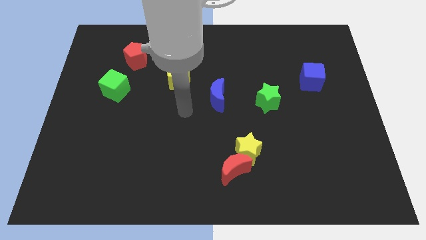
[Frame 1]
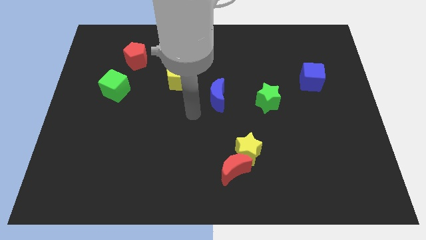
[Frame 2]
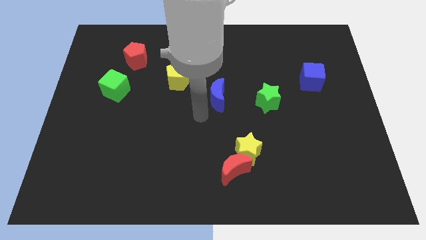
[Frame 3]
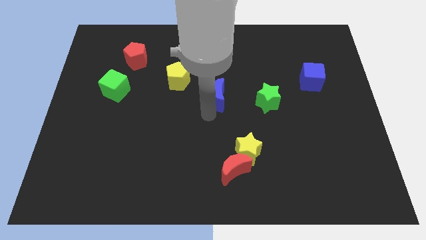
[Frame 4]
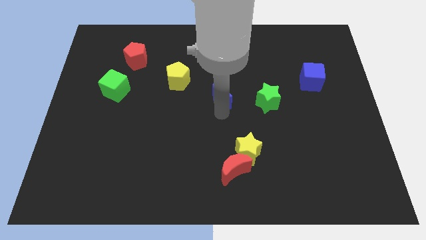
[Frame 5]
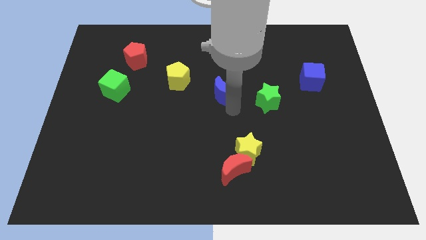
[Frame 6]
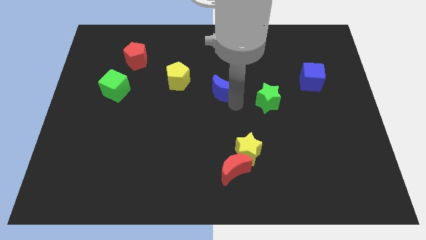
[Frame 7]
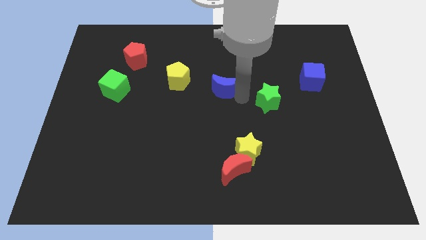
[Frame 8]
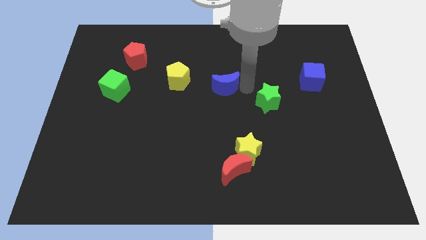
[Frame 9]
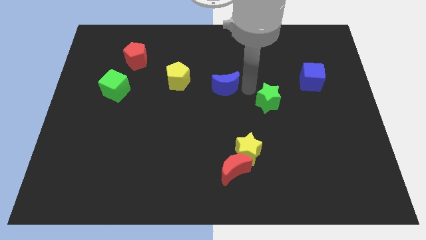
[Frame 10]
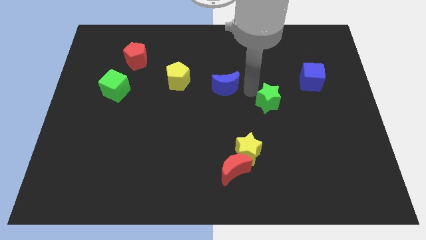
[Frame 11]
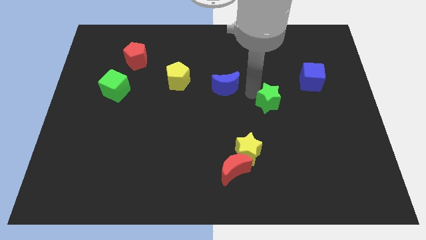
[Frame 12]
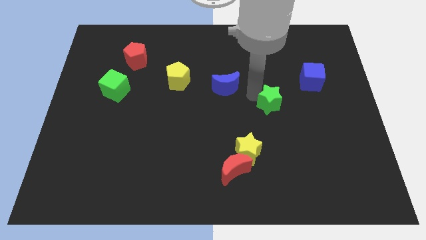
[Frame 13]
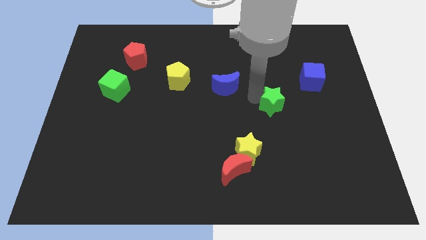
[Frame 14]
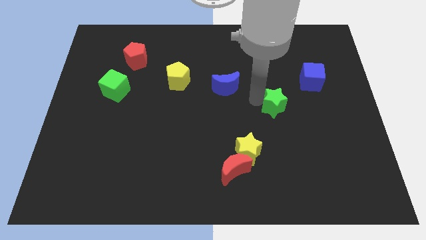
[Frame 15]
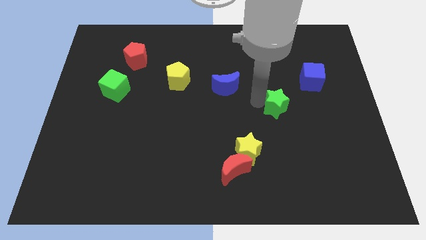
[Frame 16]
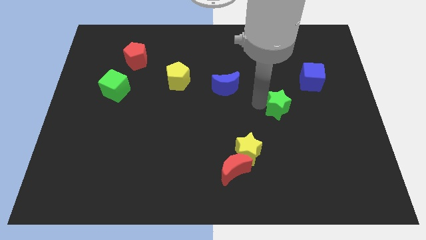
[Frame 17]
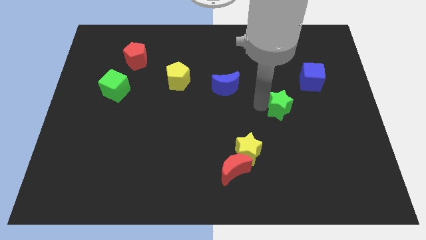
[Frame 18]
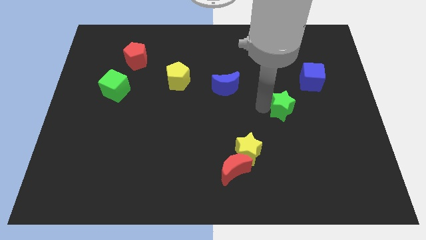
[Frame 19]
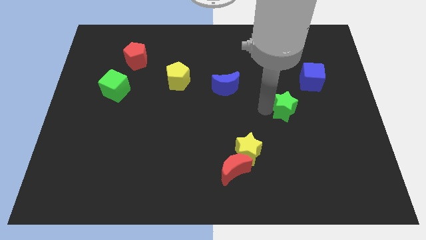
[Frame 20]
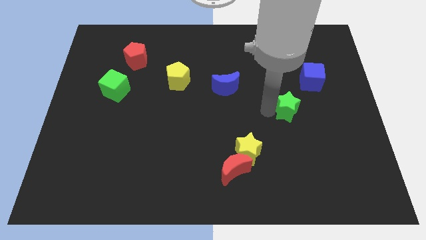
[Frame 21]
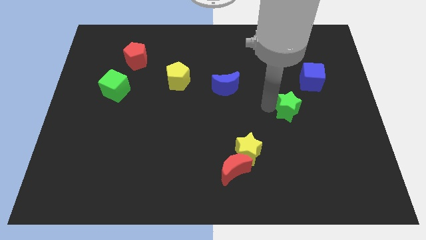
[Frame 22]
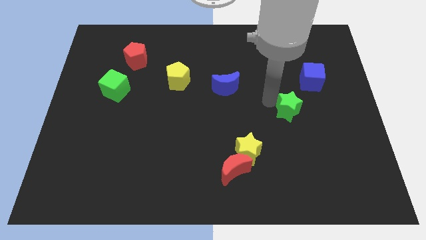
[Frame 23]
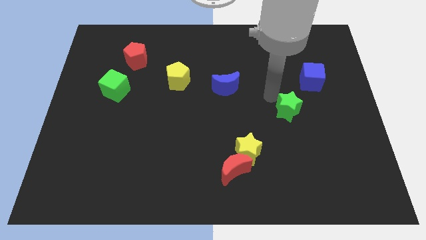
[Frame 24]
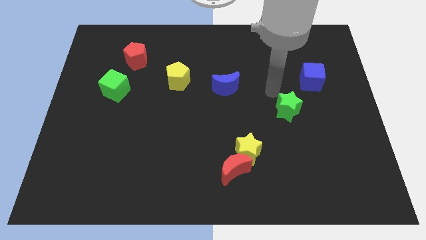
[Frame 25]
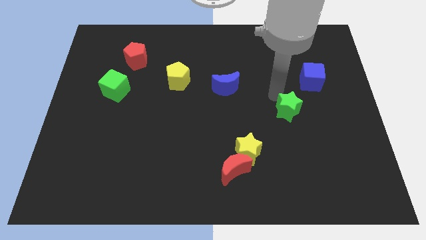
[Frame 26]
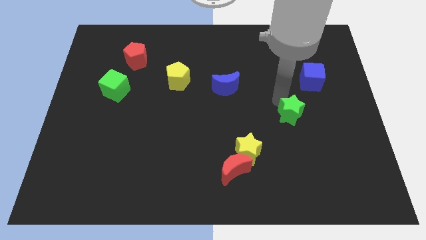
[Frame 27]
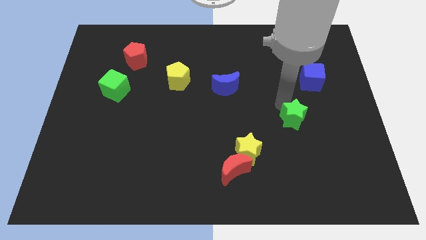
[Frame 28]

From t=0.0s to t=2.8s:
slightly slide the green star down and to the right

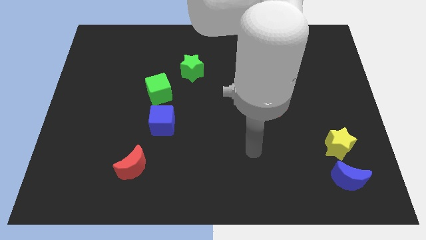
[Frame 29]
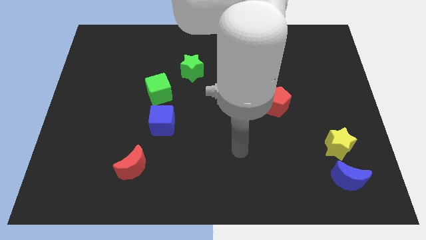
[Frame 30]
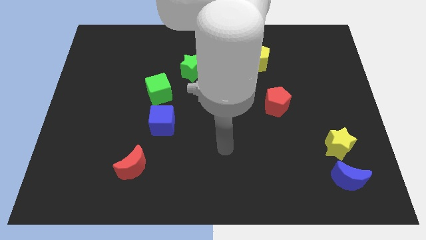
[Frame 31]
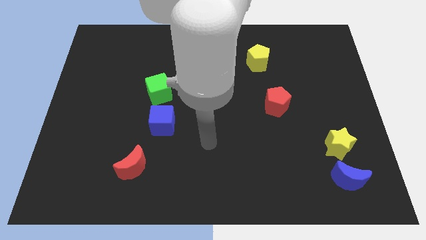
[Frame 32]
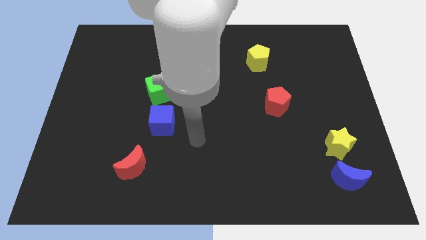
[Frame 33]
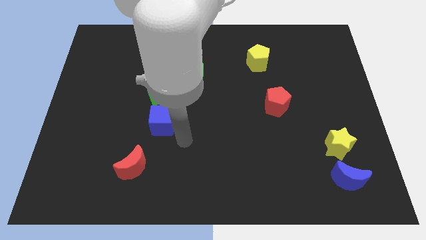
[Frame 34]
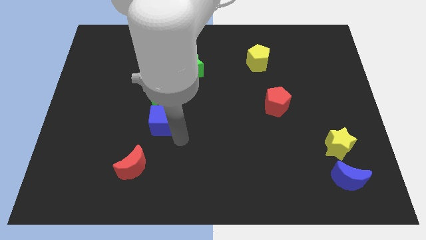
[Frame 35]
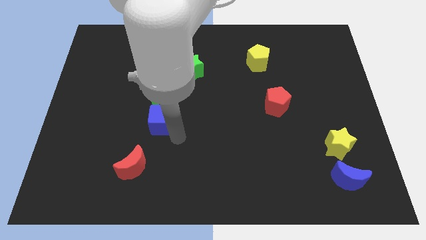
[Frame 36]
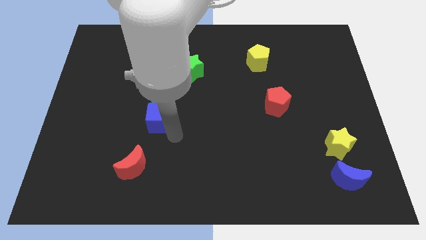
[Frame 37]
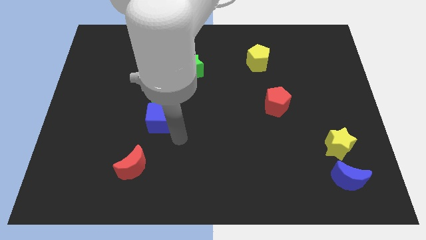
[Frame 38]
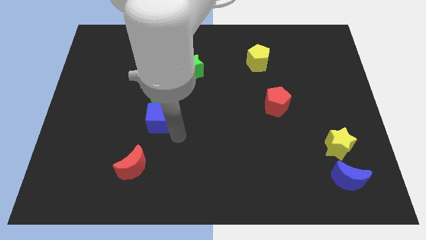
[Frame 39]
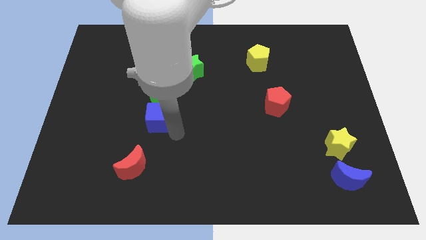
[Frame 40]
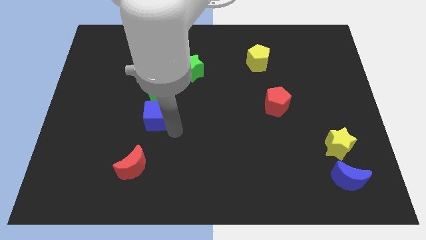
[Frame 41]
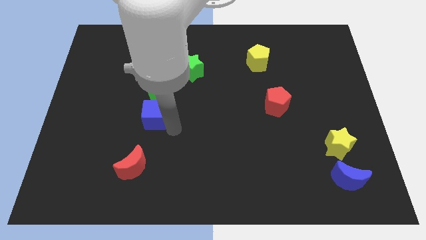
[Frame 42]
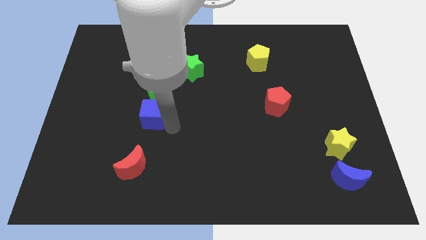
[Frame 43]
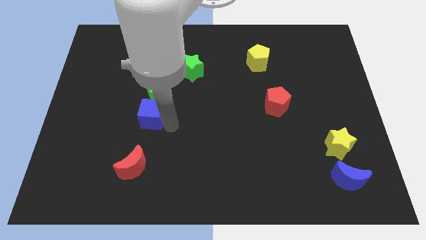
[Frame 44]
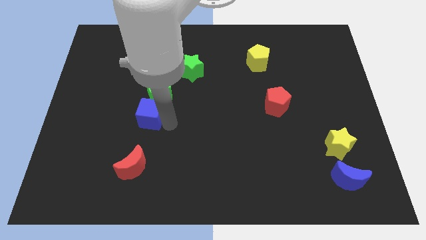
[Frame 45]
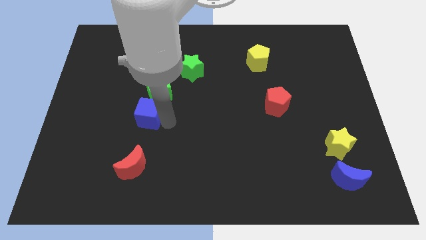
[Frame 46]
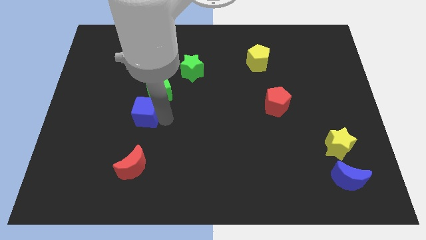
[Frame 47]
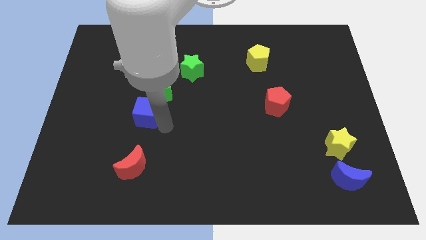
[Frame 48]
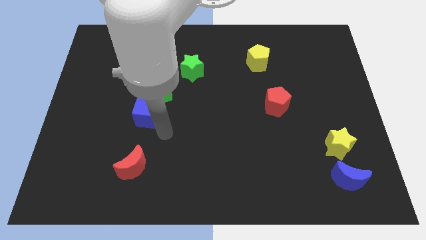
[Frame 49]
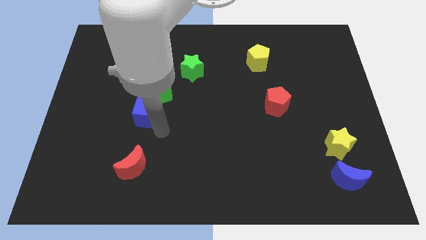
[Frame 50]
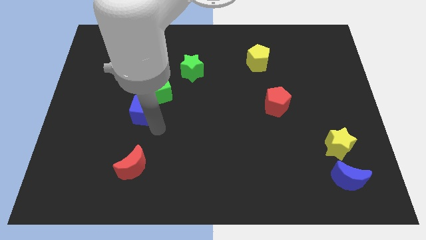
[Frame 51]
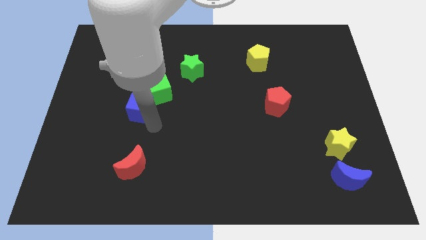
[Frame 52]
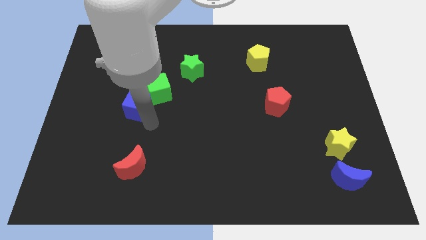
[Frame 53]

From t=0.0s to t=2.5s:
push the blue cube up and then left somewhat

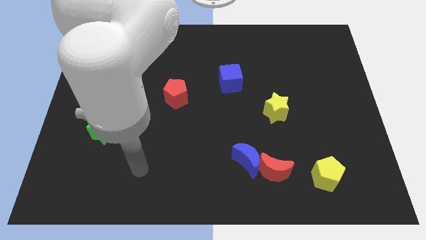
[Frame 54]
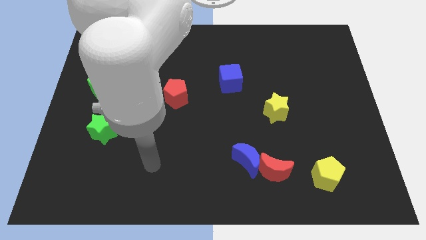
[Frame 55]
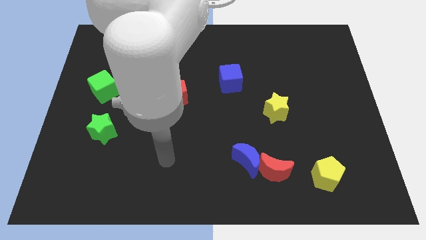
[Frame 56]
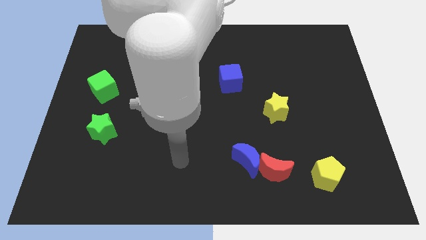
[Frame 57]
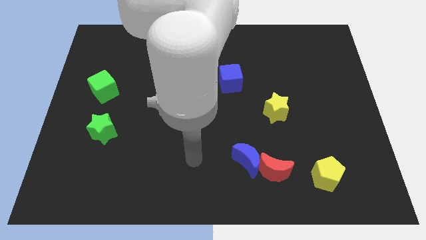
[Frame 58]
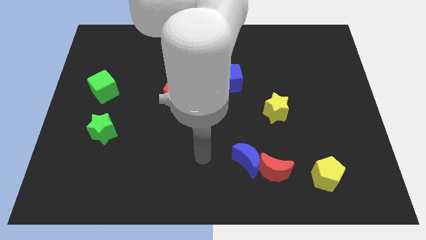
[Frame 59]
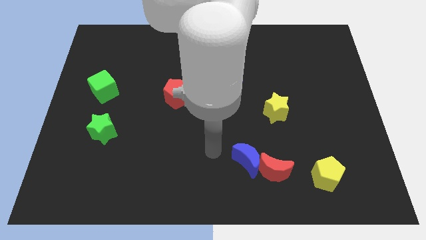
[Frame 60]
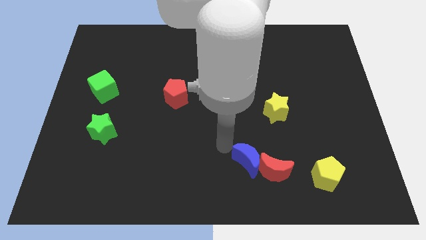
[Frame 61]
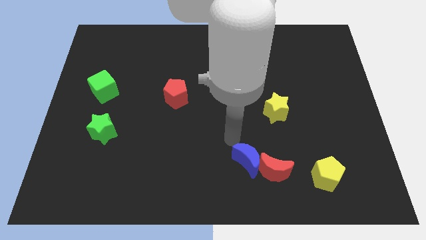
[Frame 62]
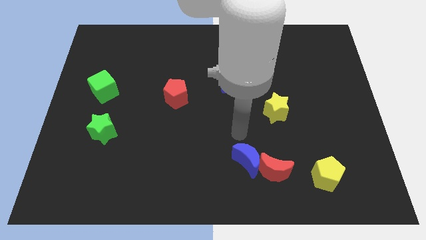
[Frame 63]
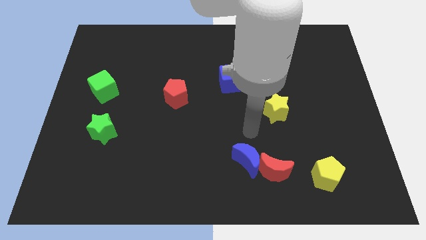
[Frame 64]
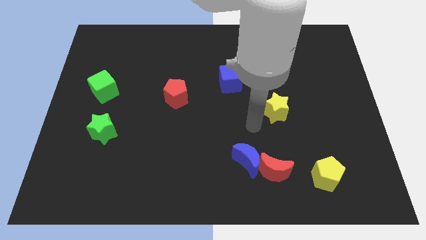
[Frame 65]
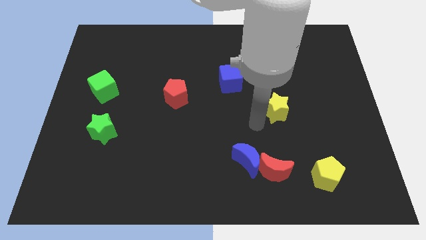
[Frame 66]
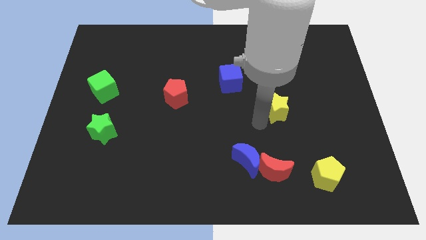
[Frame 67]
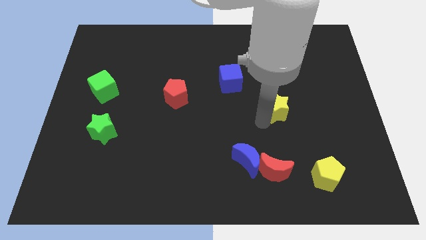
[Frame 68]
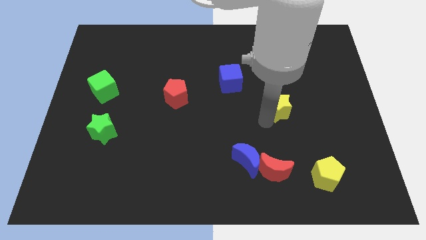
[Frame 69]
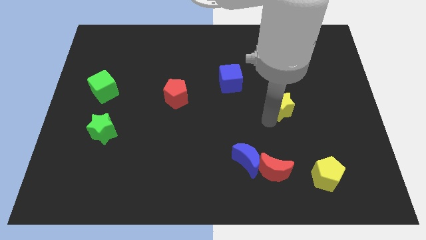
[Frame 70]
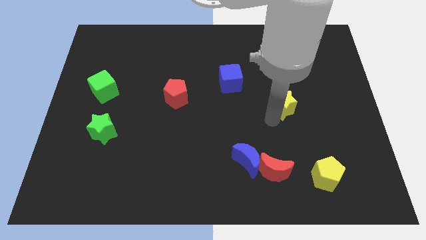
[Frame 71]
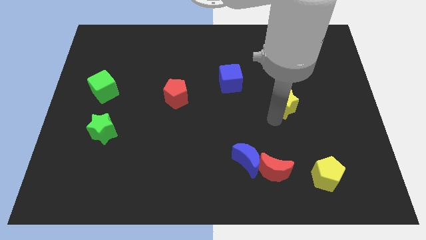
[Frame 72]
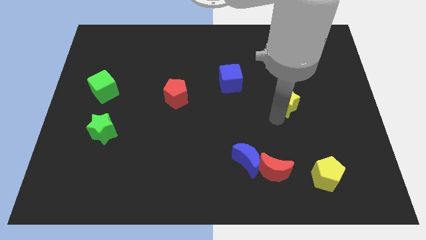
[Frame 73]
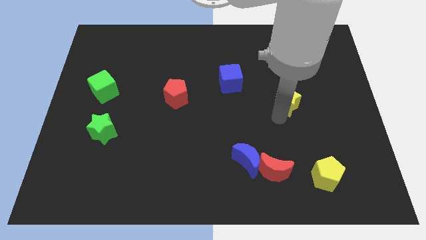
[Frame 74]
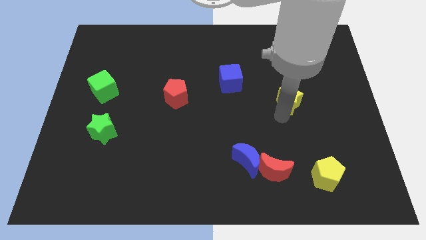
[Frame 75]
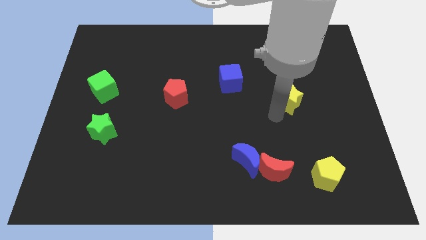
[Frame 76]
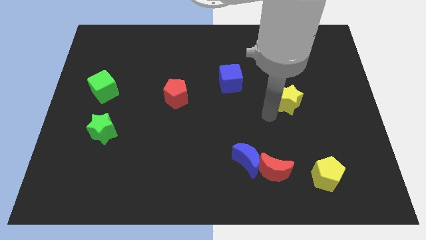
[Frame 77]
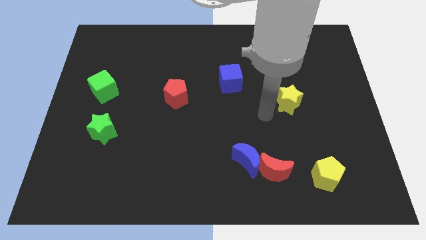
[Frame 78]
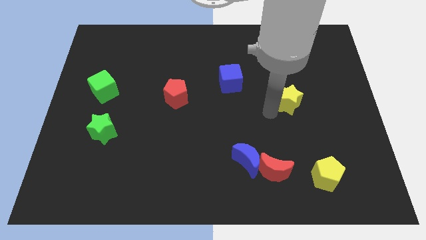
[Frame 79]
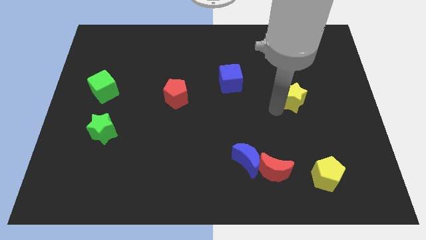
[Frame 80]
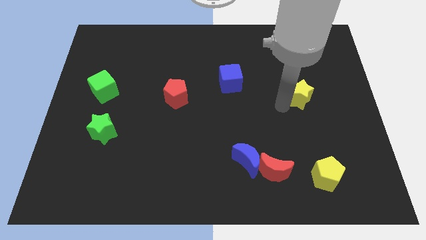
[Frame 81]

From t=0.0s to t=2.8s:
slide the yellow star a little up and then right
